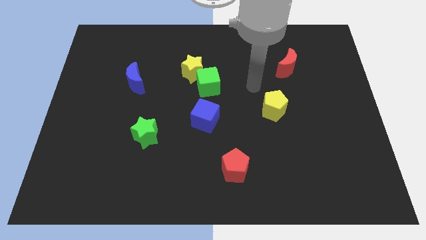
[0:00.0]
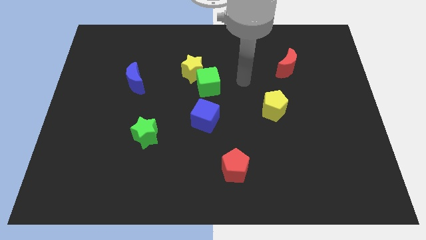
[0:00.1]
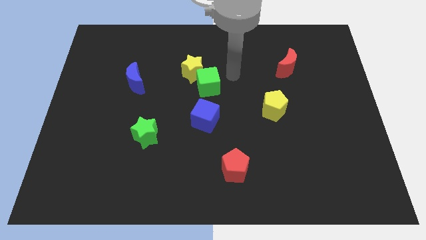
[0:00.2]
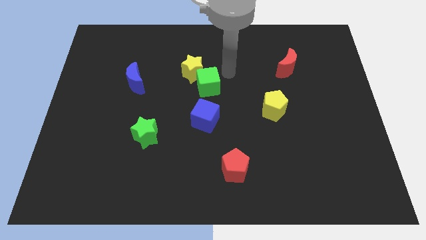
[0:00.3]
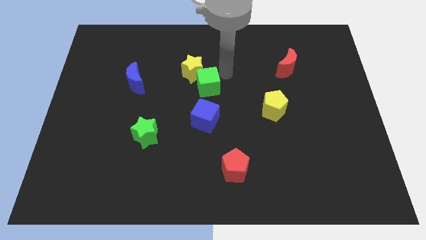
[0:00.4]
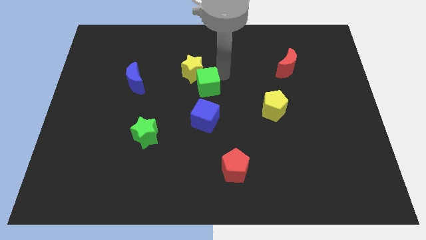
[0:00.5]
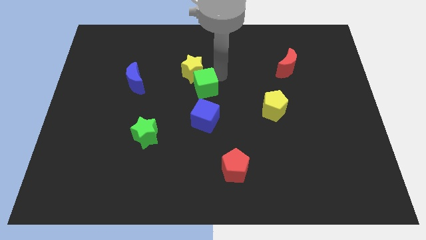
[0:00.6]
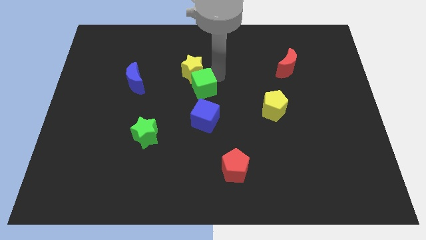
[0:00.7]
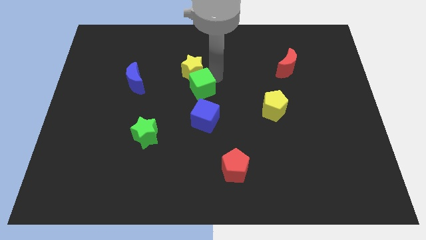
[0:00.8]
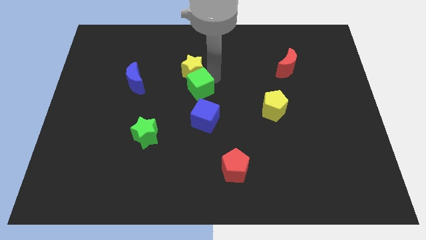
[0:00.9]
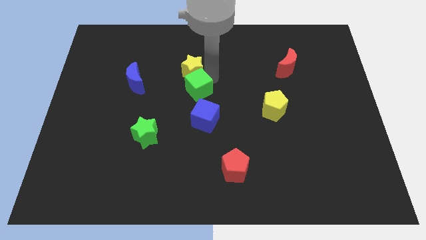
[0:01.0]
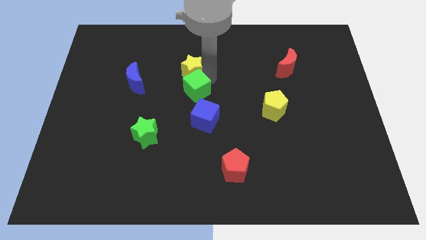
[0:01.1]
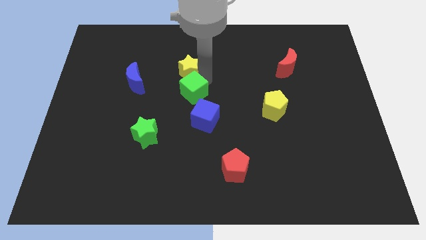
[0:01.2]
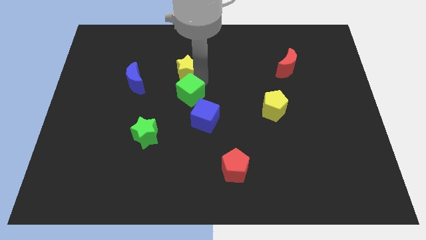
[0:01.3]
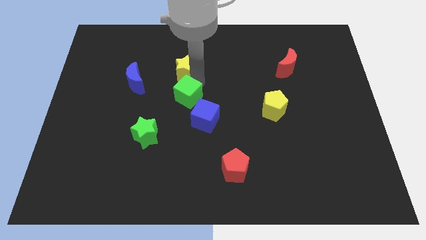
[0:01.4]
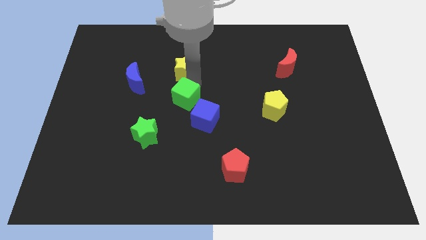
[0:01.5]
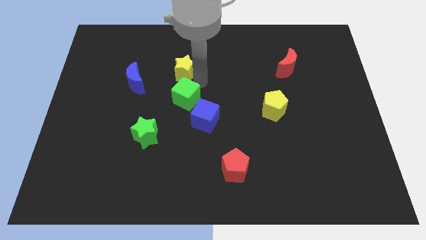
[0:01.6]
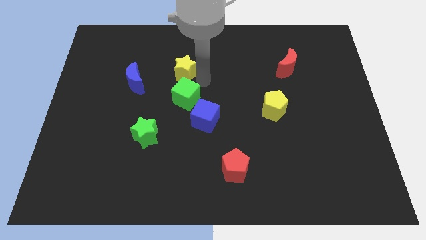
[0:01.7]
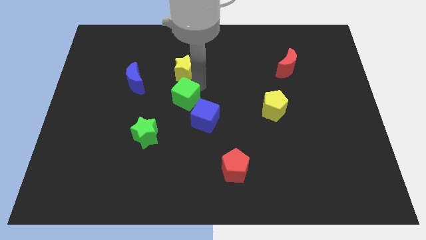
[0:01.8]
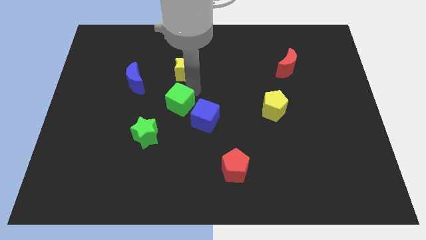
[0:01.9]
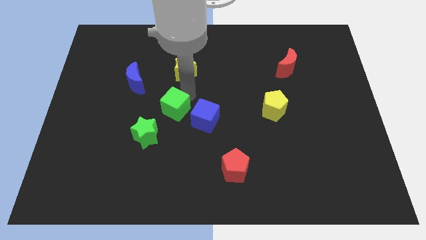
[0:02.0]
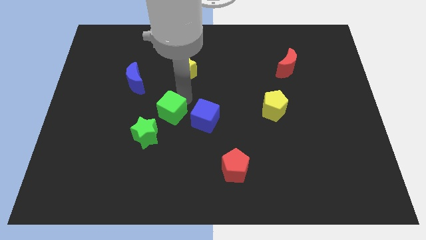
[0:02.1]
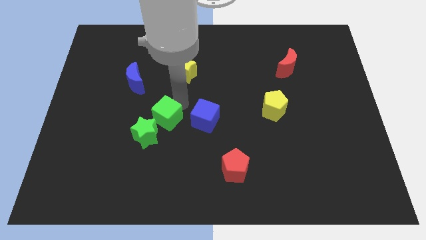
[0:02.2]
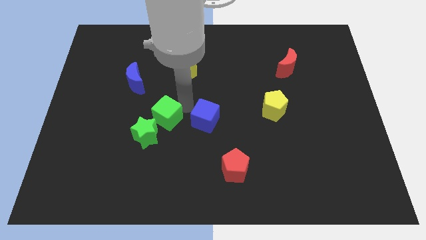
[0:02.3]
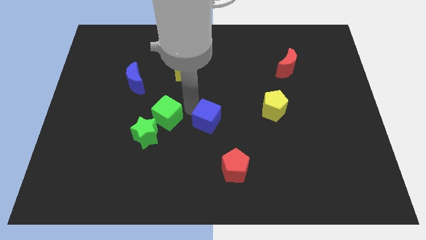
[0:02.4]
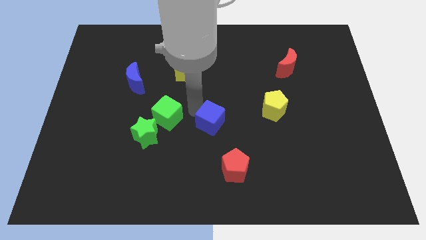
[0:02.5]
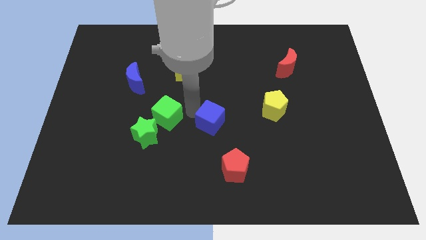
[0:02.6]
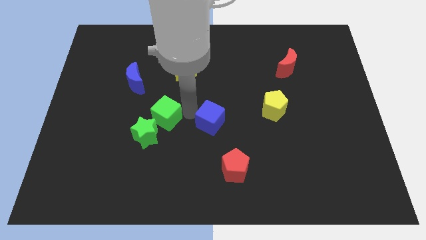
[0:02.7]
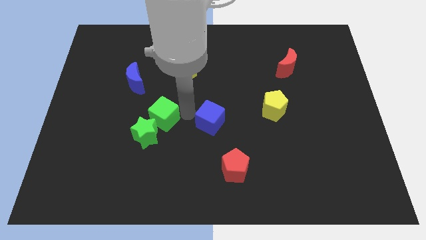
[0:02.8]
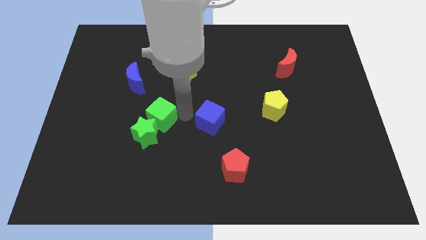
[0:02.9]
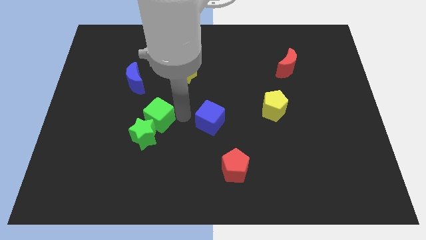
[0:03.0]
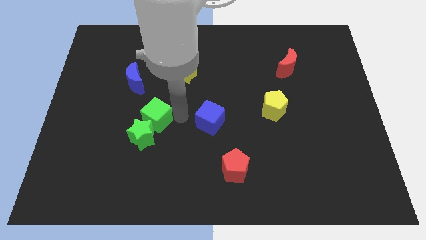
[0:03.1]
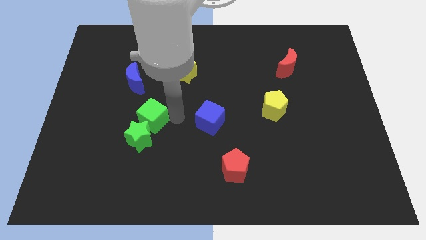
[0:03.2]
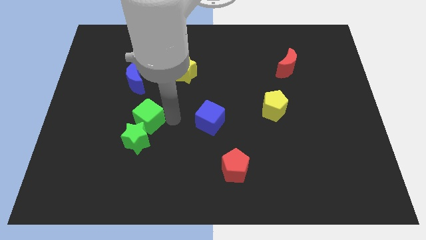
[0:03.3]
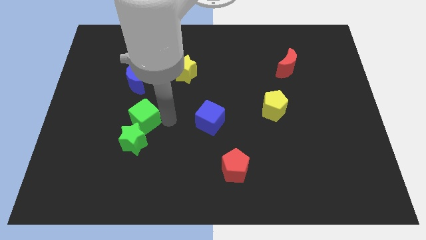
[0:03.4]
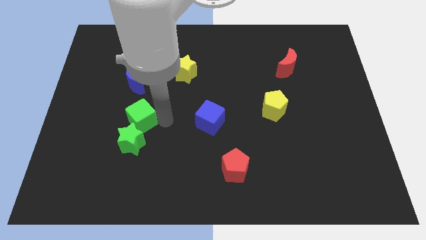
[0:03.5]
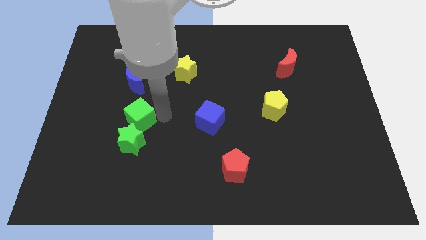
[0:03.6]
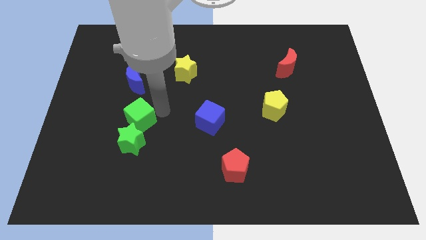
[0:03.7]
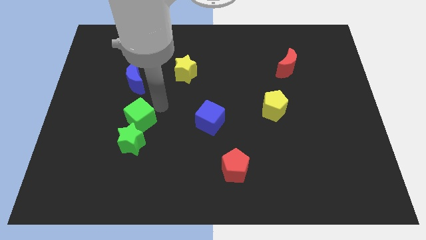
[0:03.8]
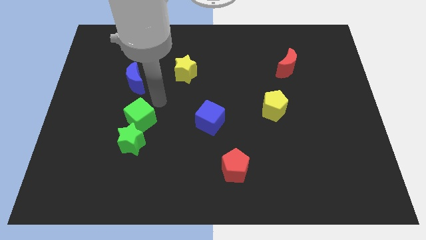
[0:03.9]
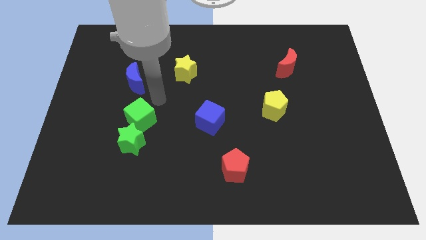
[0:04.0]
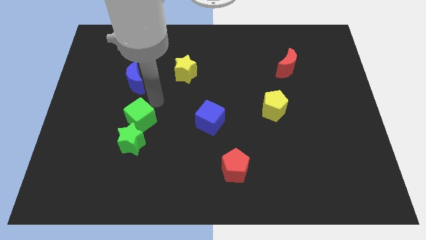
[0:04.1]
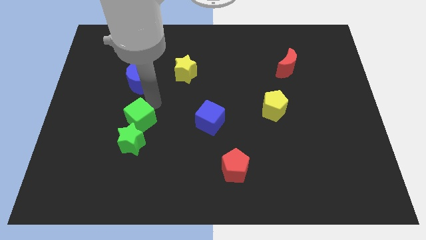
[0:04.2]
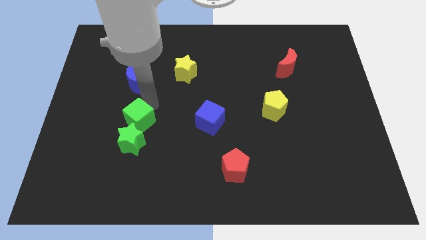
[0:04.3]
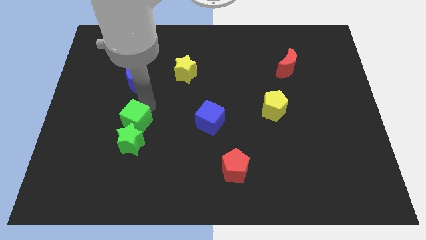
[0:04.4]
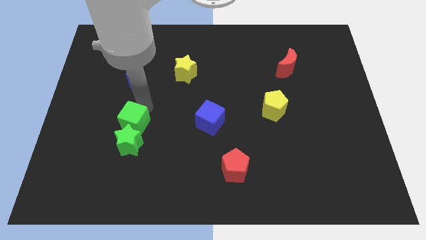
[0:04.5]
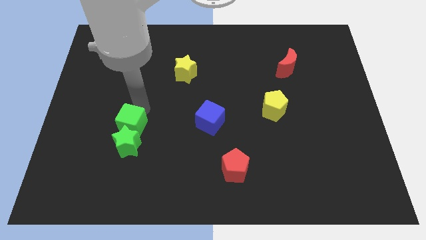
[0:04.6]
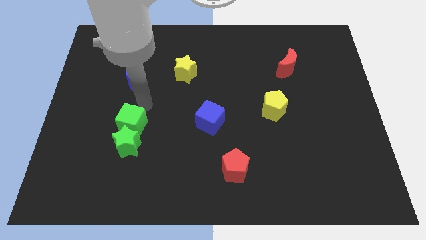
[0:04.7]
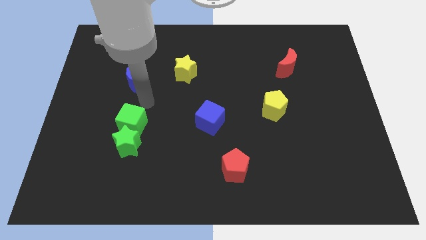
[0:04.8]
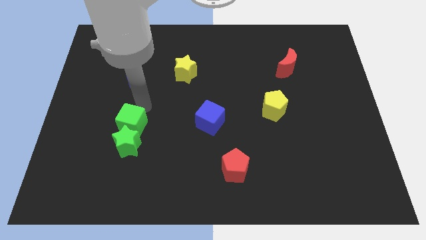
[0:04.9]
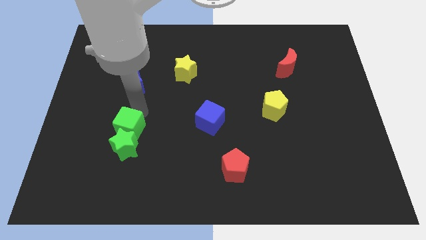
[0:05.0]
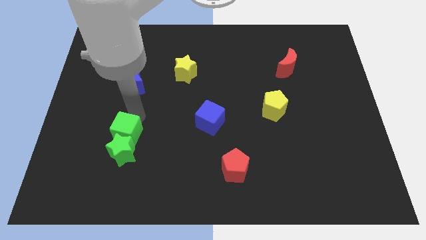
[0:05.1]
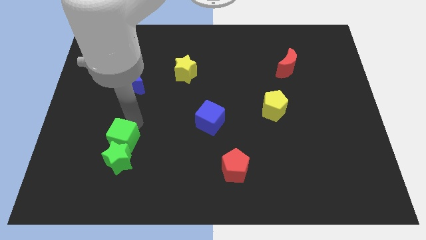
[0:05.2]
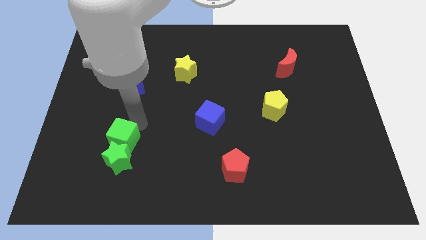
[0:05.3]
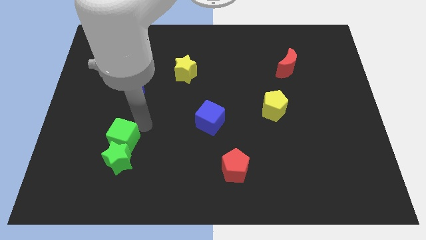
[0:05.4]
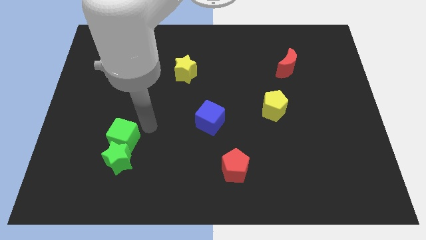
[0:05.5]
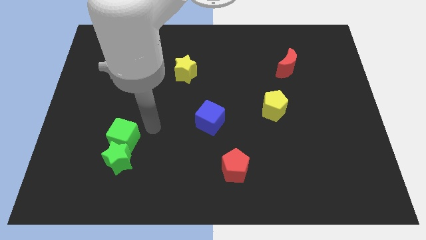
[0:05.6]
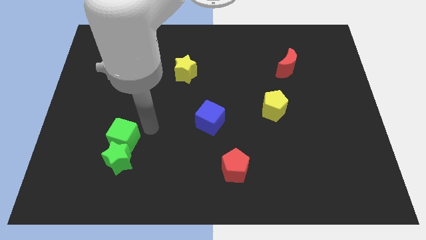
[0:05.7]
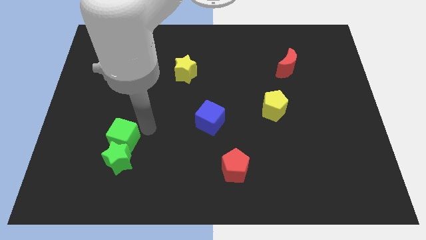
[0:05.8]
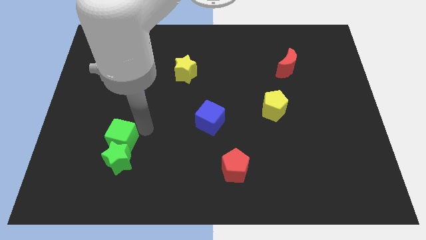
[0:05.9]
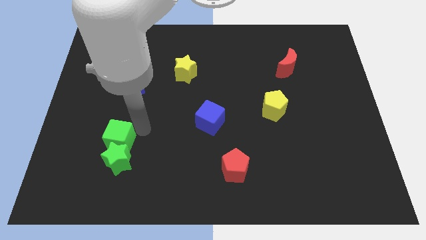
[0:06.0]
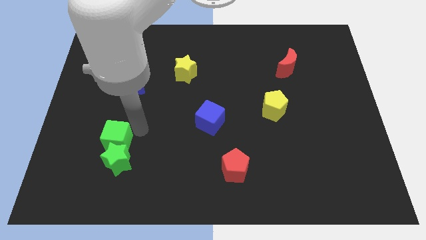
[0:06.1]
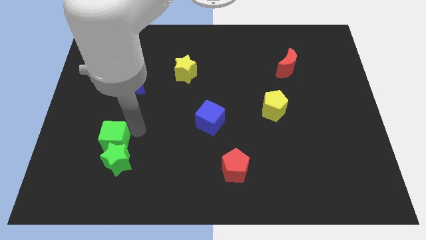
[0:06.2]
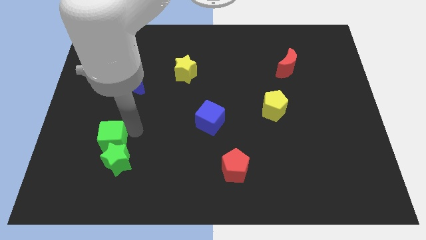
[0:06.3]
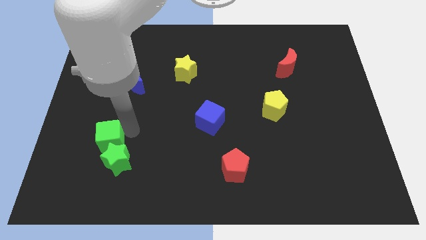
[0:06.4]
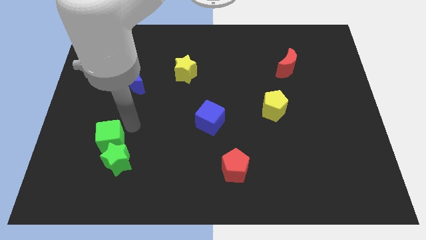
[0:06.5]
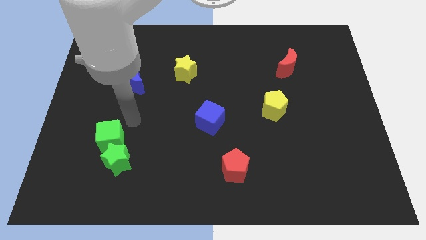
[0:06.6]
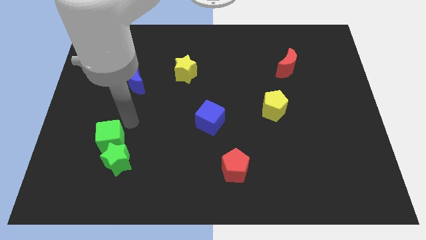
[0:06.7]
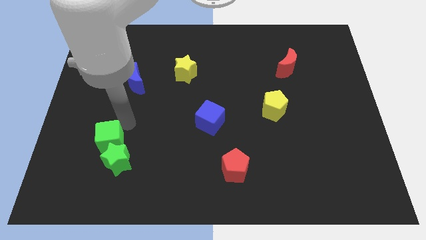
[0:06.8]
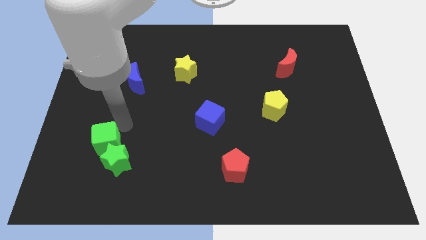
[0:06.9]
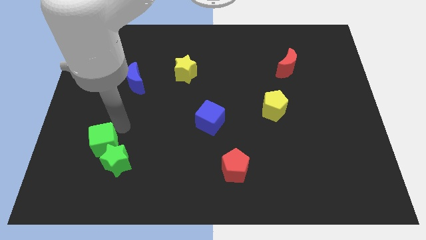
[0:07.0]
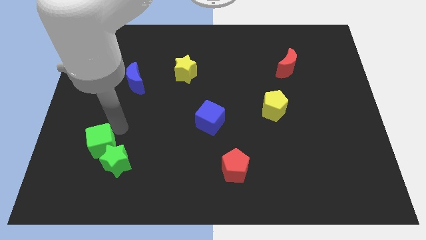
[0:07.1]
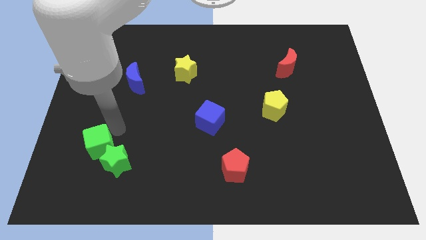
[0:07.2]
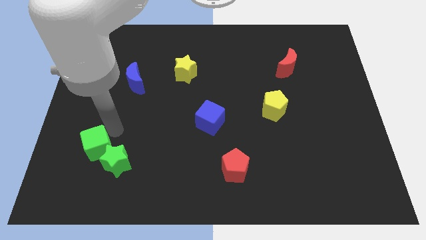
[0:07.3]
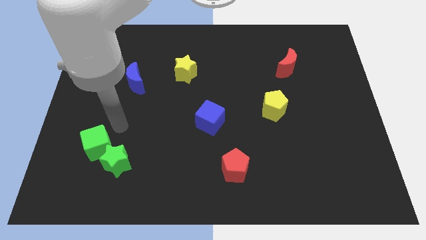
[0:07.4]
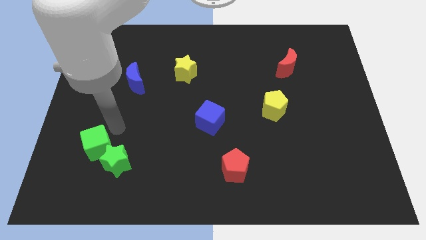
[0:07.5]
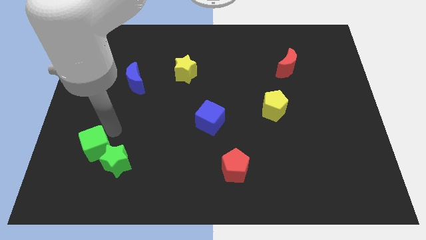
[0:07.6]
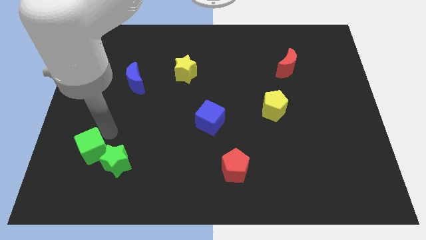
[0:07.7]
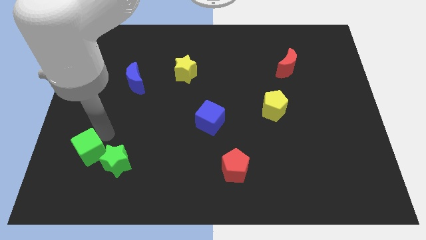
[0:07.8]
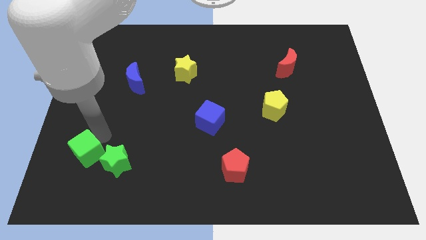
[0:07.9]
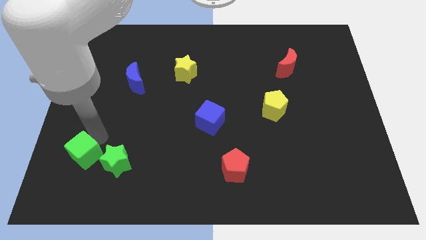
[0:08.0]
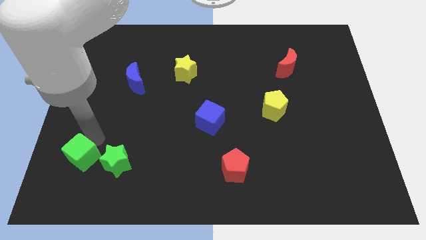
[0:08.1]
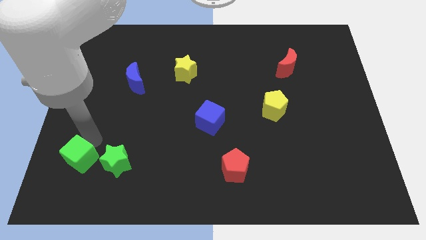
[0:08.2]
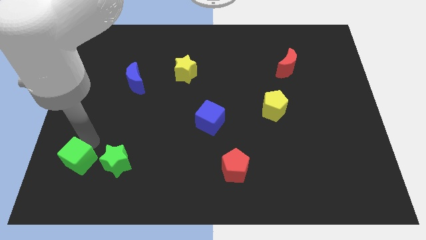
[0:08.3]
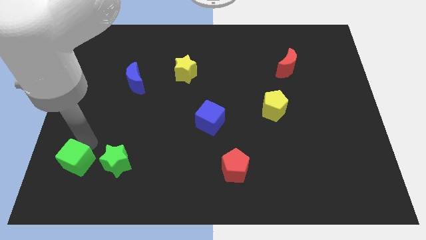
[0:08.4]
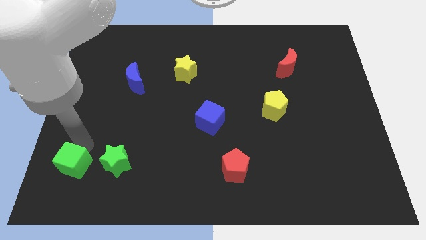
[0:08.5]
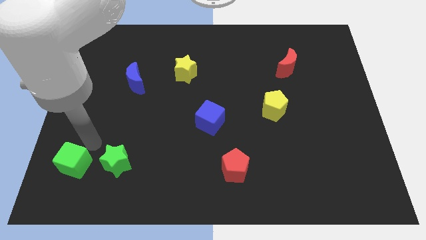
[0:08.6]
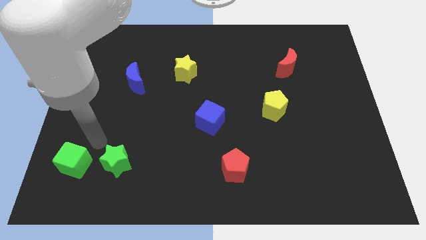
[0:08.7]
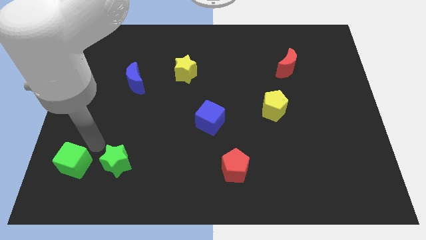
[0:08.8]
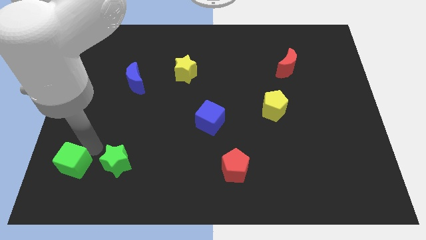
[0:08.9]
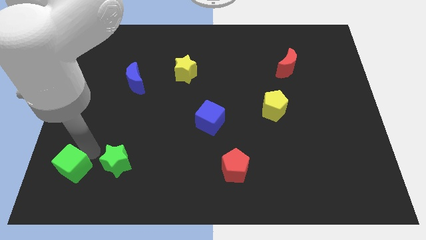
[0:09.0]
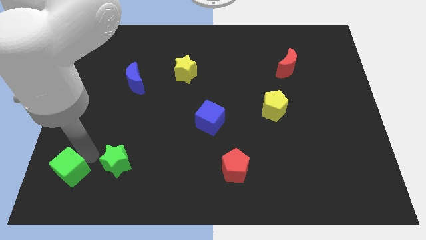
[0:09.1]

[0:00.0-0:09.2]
push the green cube to the lower left corner
